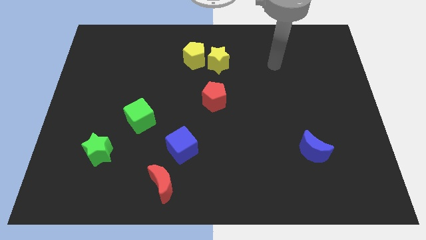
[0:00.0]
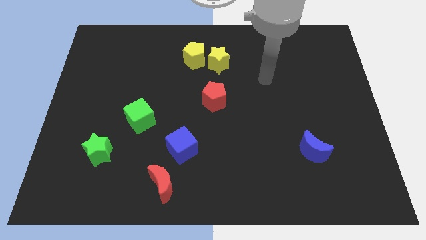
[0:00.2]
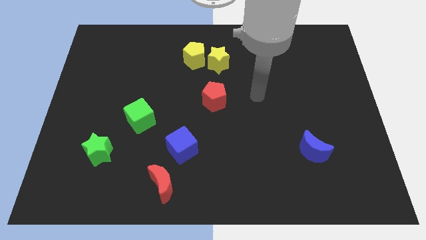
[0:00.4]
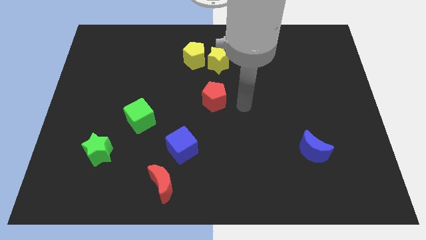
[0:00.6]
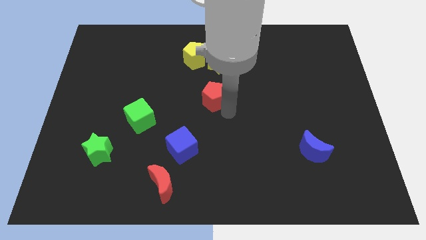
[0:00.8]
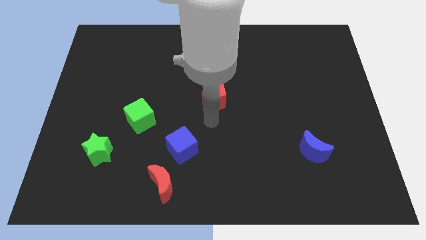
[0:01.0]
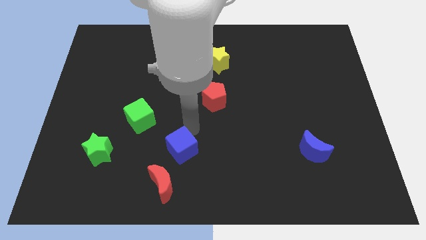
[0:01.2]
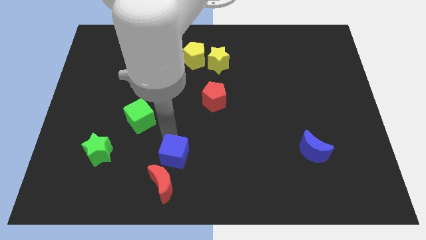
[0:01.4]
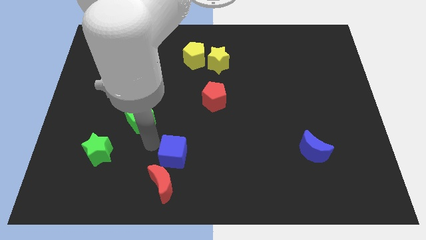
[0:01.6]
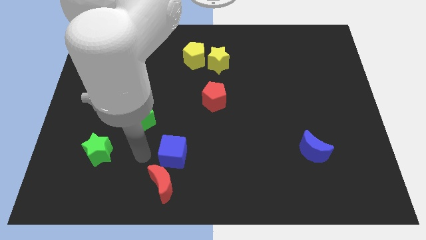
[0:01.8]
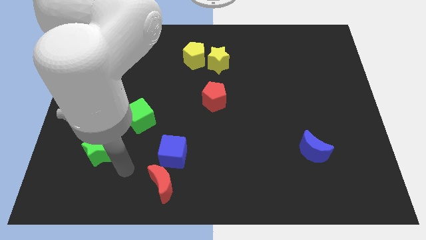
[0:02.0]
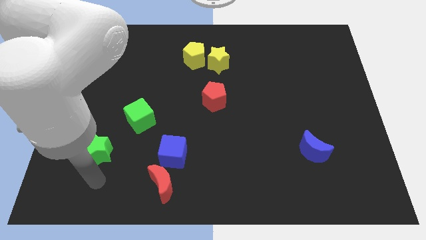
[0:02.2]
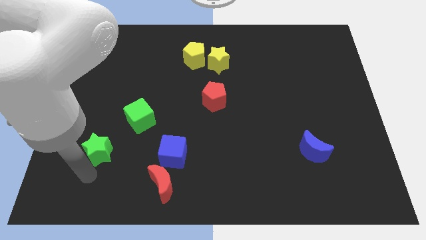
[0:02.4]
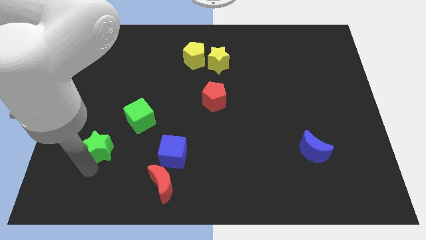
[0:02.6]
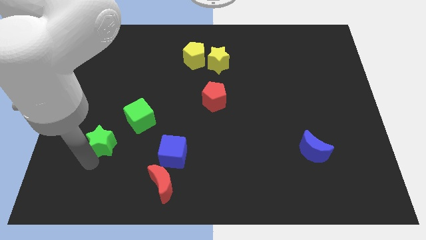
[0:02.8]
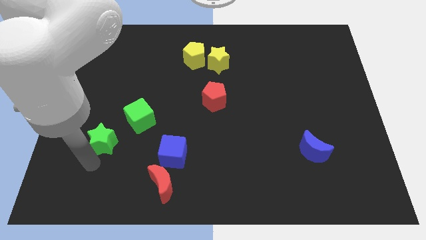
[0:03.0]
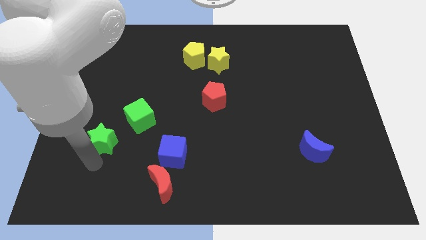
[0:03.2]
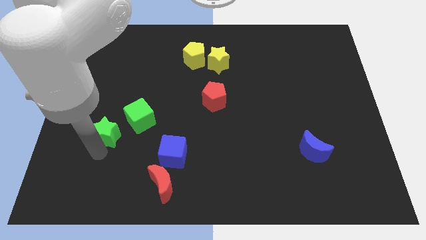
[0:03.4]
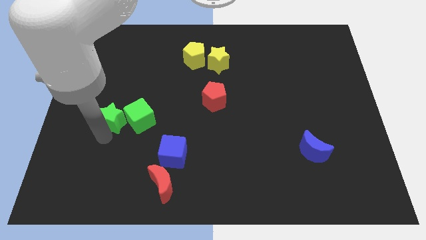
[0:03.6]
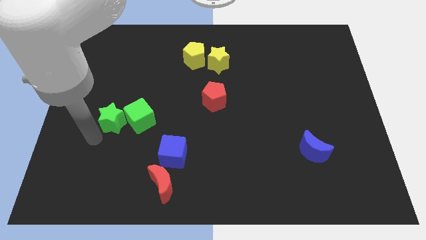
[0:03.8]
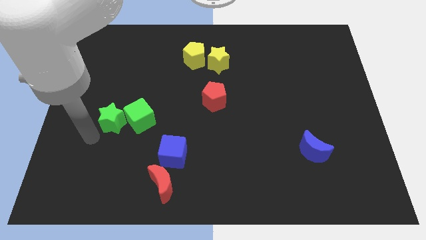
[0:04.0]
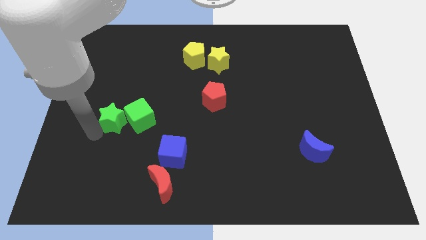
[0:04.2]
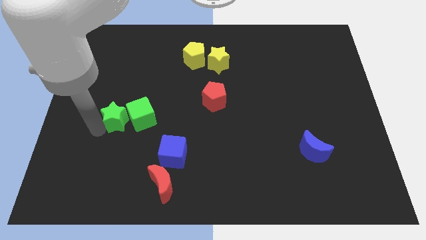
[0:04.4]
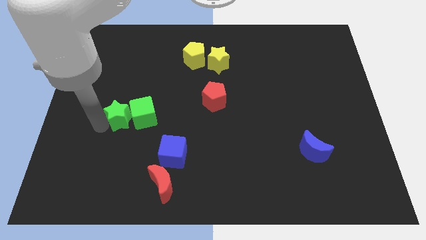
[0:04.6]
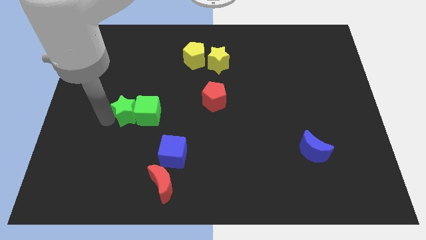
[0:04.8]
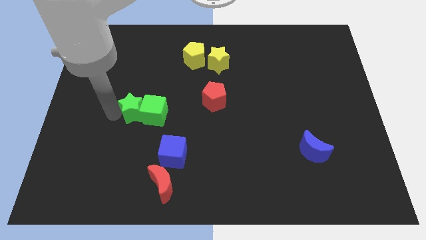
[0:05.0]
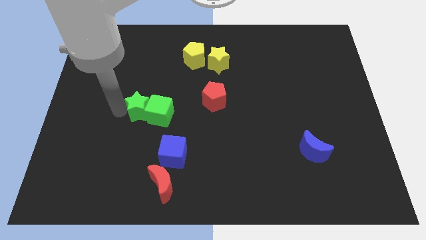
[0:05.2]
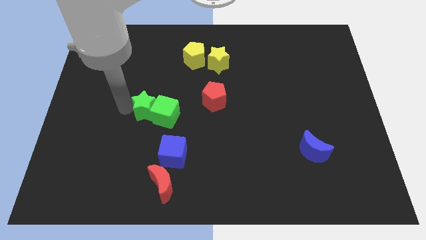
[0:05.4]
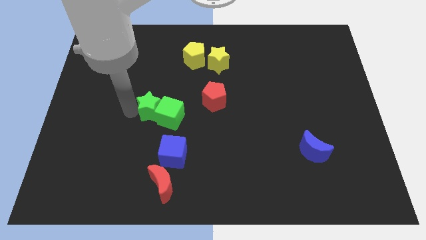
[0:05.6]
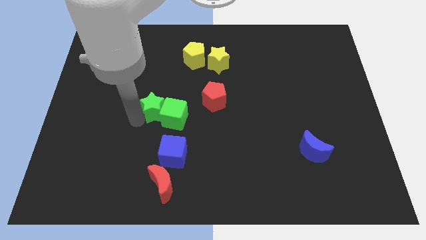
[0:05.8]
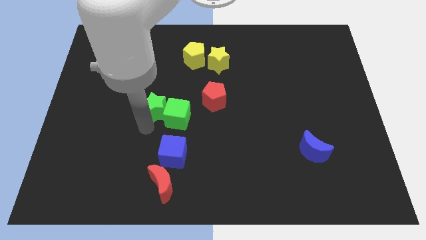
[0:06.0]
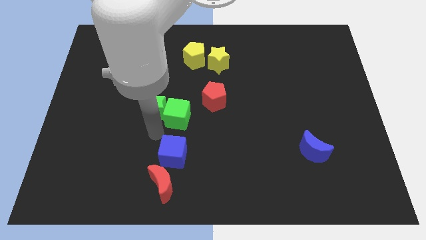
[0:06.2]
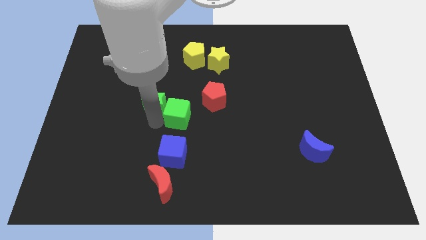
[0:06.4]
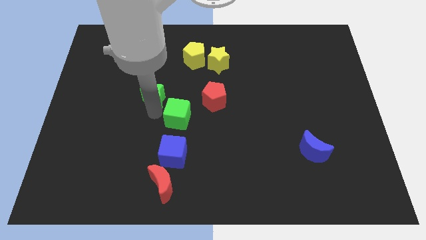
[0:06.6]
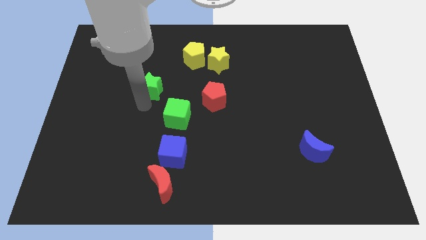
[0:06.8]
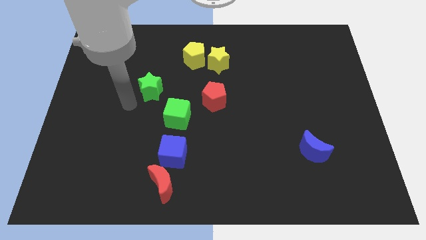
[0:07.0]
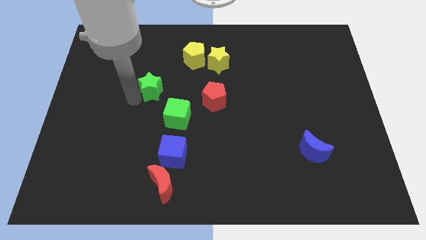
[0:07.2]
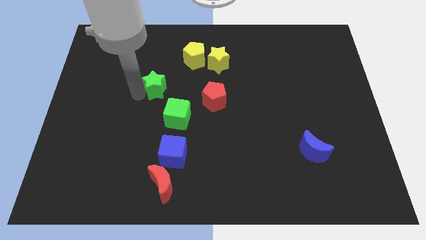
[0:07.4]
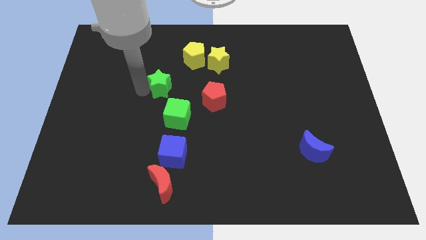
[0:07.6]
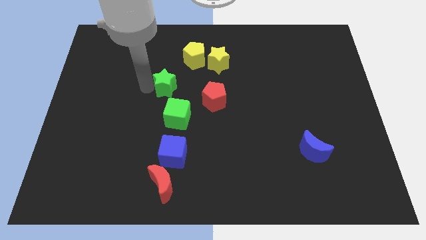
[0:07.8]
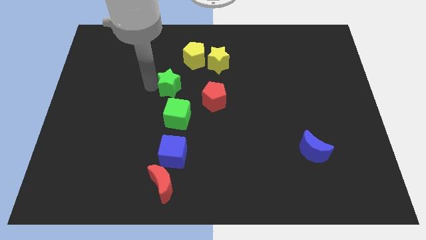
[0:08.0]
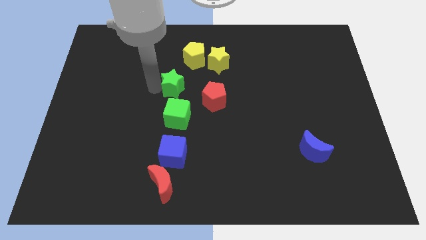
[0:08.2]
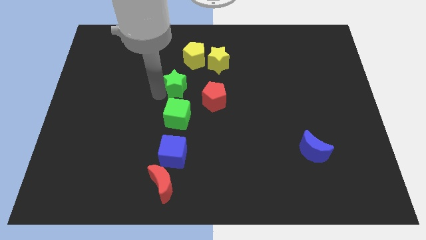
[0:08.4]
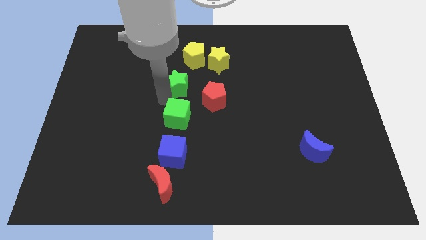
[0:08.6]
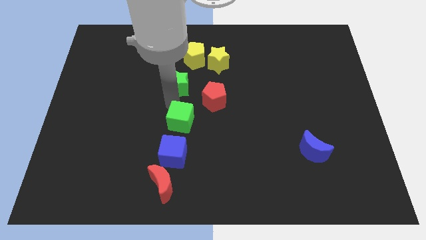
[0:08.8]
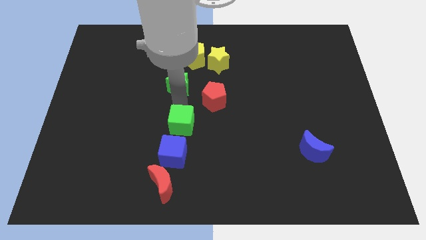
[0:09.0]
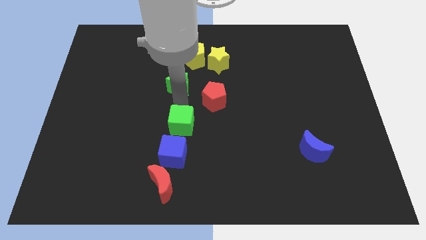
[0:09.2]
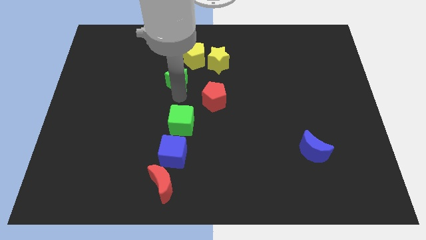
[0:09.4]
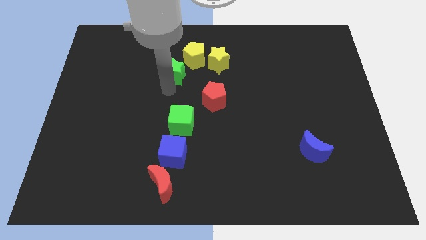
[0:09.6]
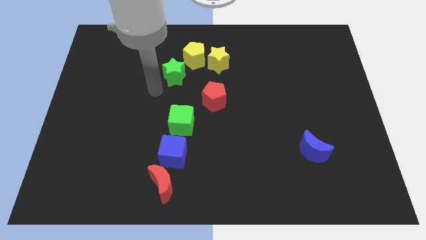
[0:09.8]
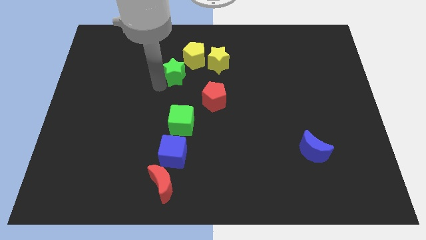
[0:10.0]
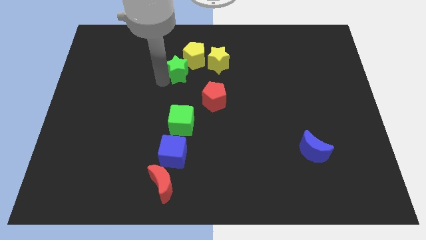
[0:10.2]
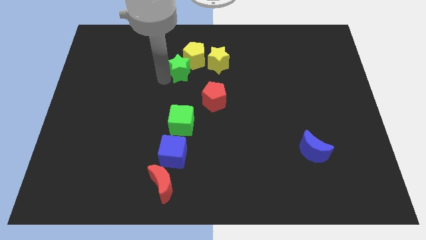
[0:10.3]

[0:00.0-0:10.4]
move the green star close to the yellow pentagon

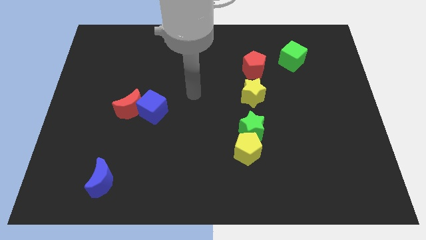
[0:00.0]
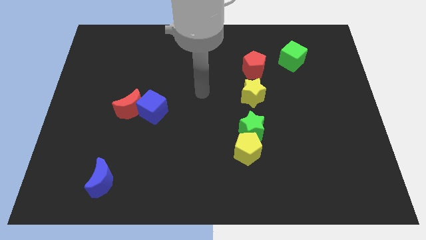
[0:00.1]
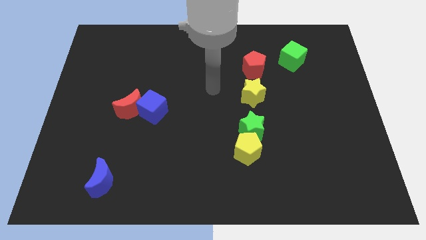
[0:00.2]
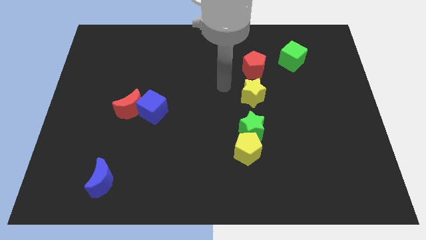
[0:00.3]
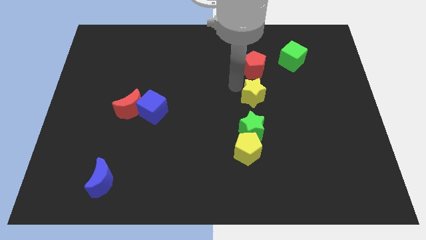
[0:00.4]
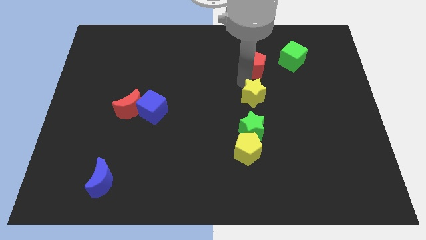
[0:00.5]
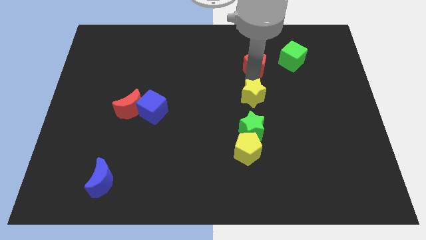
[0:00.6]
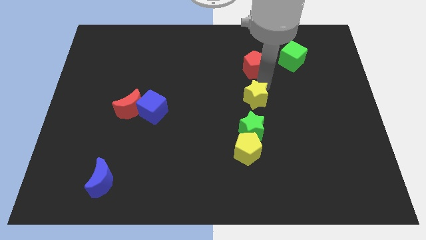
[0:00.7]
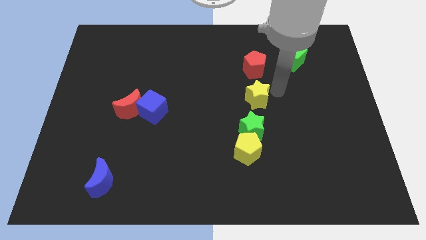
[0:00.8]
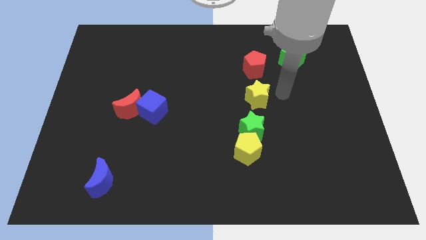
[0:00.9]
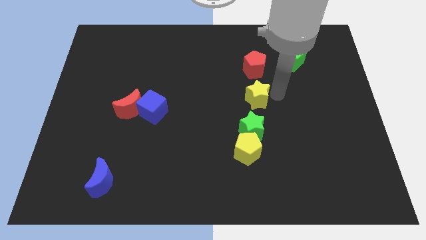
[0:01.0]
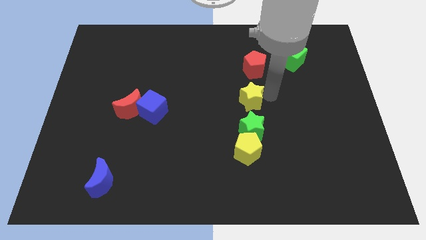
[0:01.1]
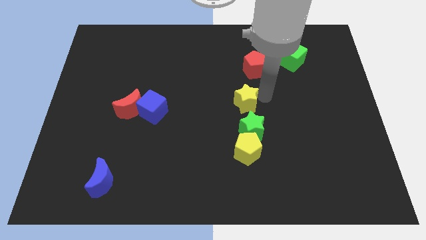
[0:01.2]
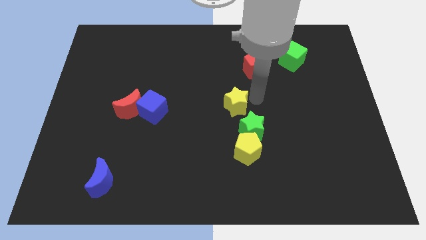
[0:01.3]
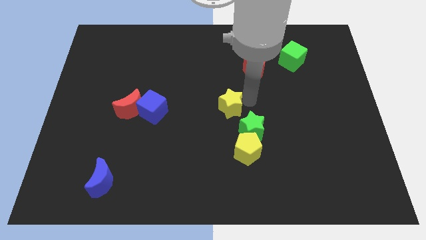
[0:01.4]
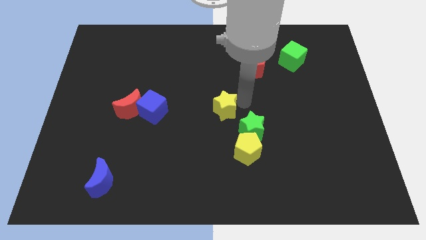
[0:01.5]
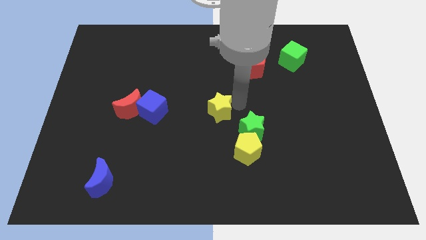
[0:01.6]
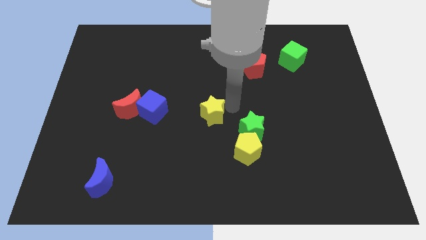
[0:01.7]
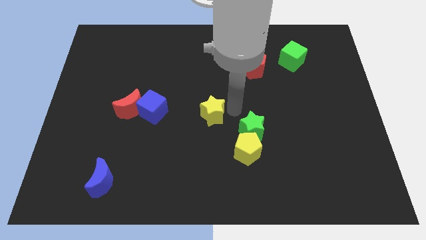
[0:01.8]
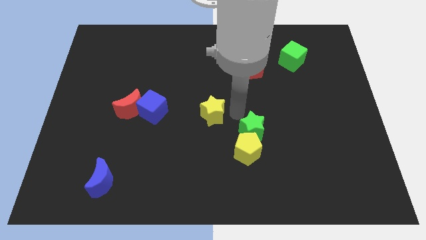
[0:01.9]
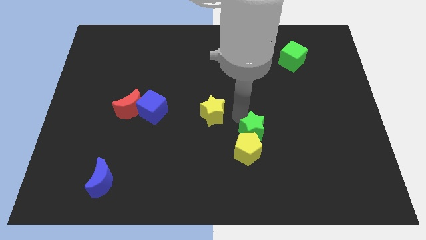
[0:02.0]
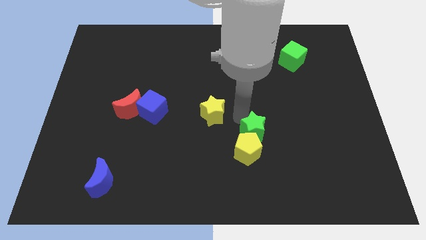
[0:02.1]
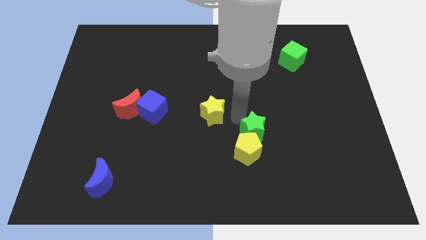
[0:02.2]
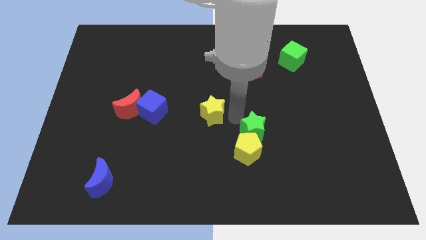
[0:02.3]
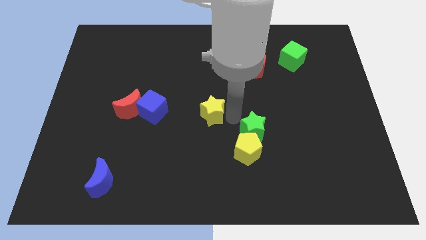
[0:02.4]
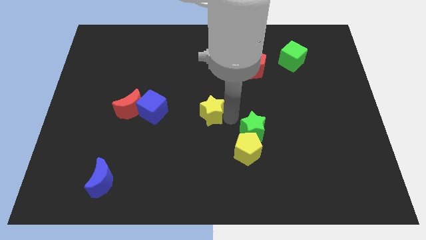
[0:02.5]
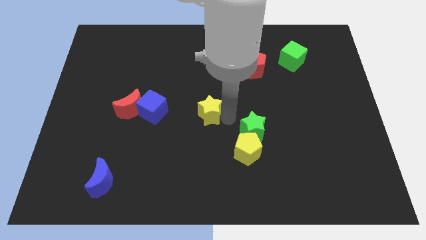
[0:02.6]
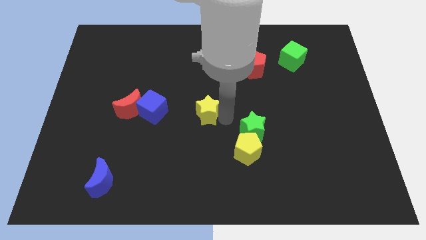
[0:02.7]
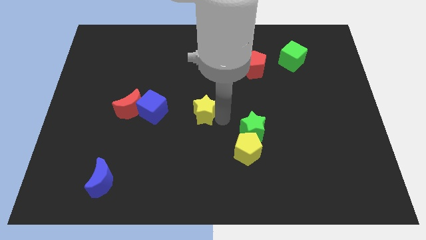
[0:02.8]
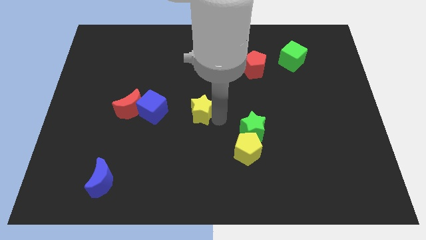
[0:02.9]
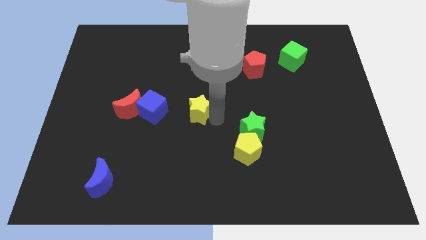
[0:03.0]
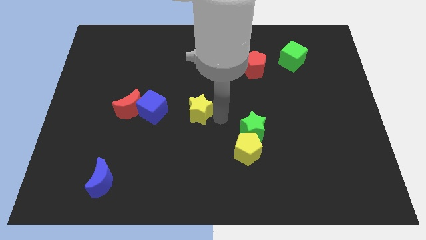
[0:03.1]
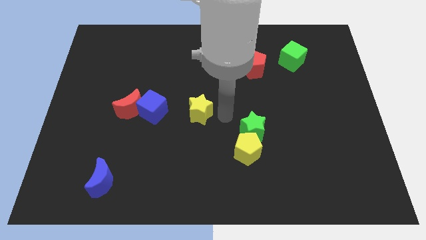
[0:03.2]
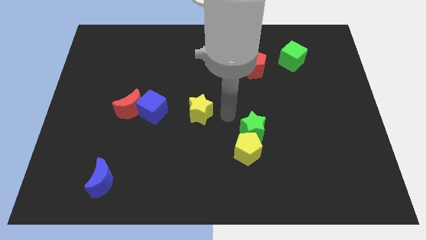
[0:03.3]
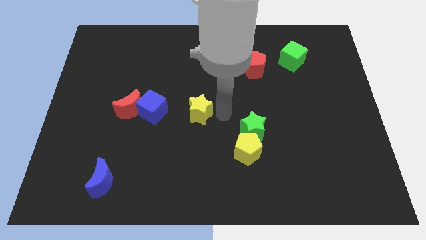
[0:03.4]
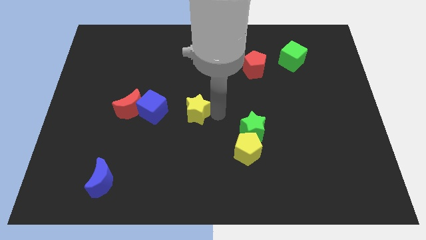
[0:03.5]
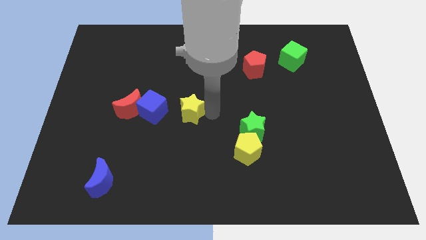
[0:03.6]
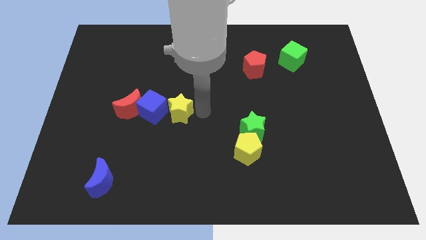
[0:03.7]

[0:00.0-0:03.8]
slide the yellow star towards the blue cube
